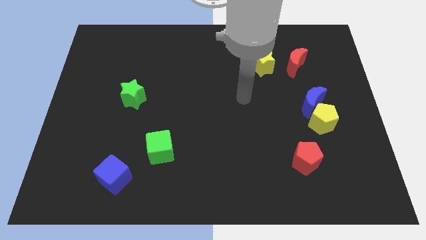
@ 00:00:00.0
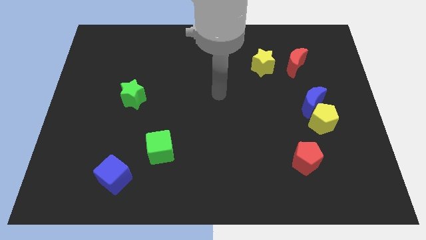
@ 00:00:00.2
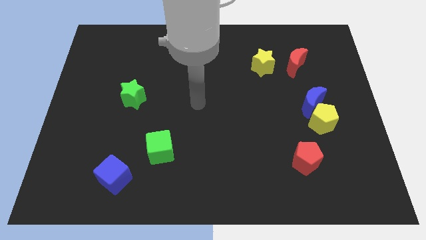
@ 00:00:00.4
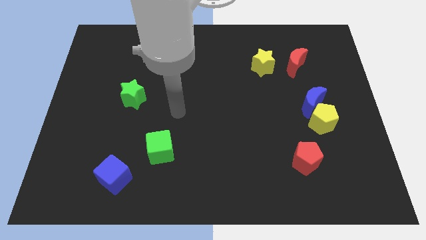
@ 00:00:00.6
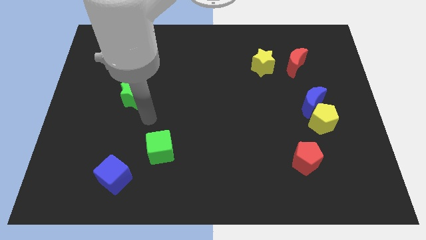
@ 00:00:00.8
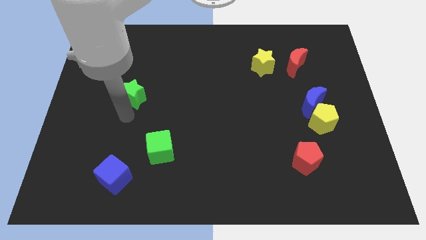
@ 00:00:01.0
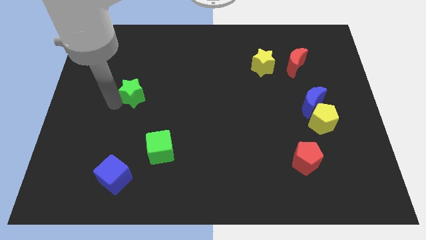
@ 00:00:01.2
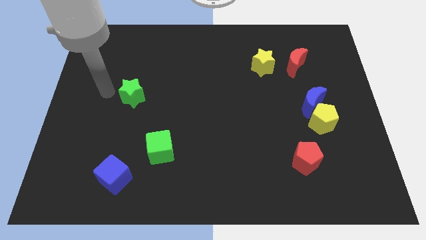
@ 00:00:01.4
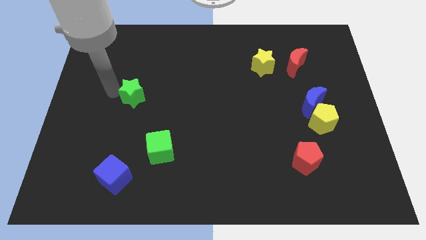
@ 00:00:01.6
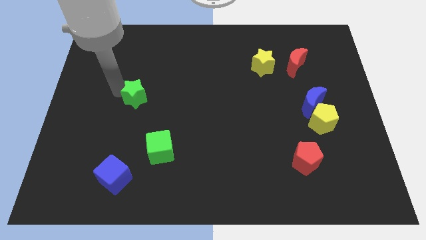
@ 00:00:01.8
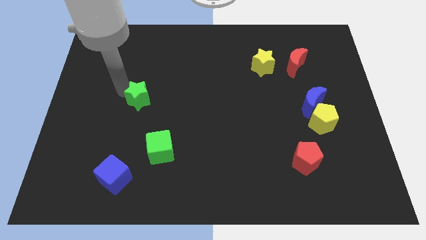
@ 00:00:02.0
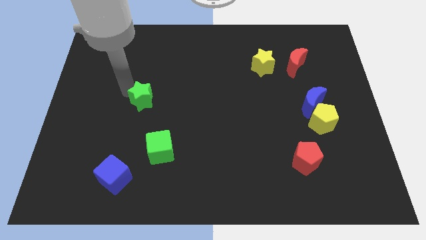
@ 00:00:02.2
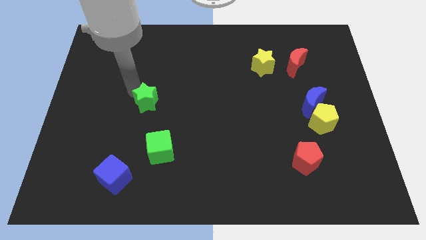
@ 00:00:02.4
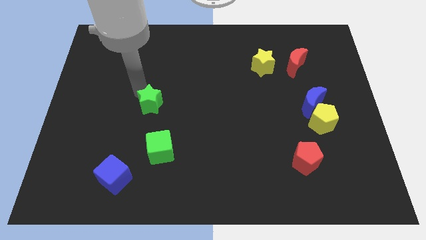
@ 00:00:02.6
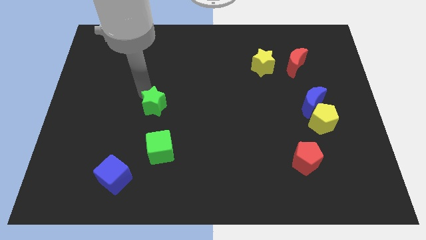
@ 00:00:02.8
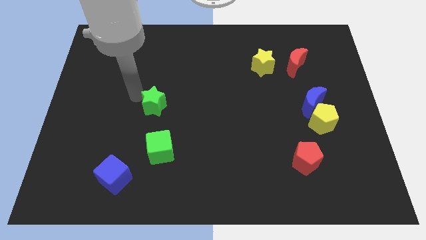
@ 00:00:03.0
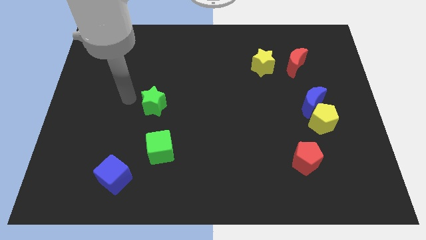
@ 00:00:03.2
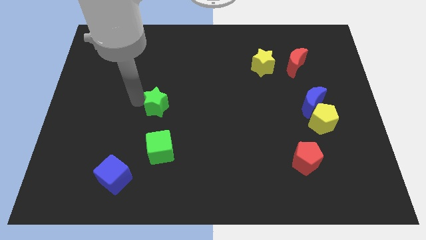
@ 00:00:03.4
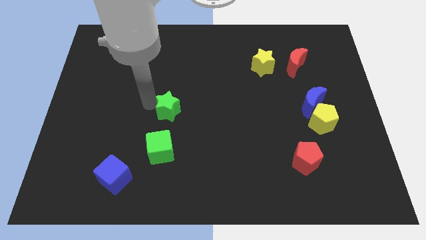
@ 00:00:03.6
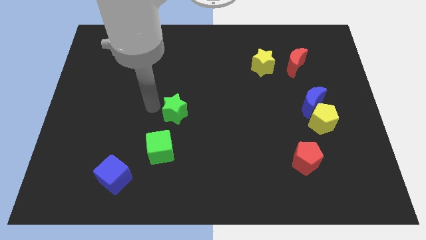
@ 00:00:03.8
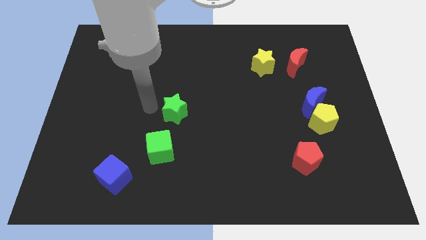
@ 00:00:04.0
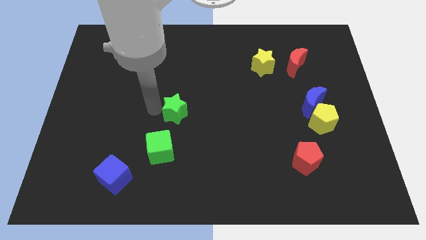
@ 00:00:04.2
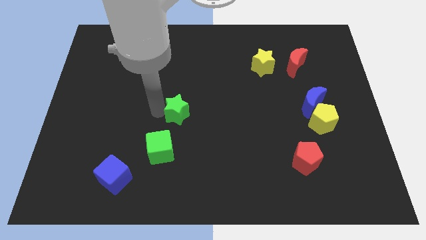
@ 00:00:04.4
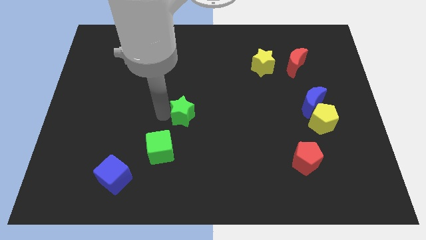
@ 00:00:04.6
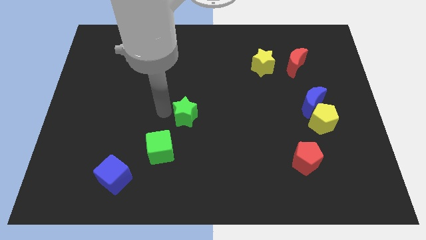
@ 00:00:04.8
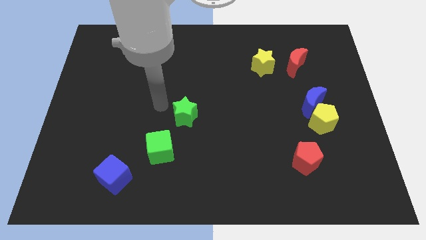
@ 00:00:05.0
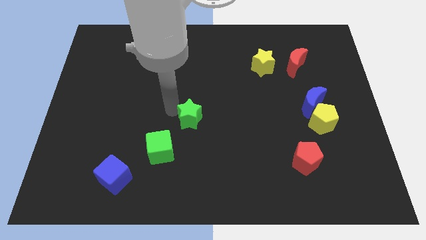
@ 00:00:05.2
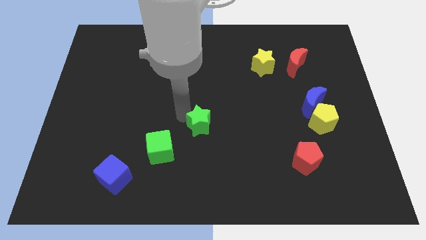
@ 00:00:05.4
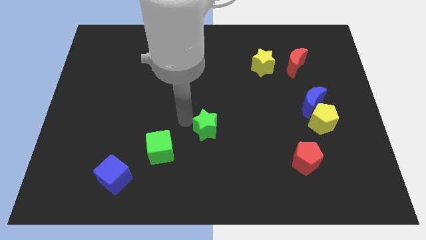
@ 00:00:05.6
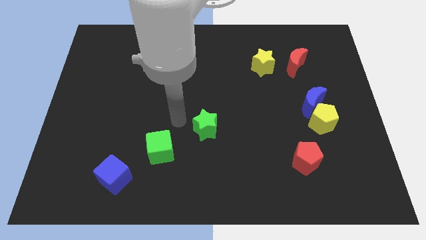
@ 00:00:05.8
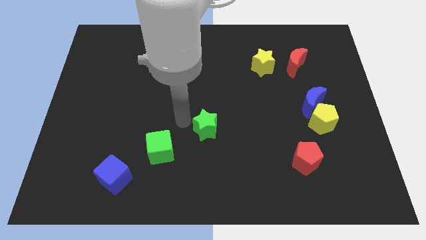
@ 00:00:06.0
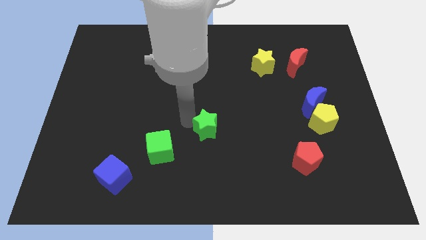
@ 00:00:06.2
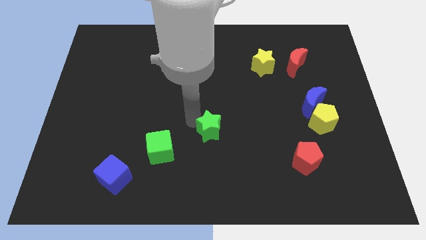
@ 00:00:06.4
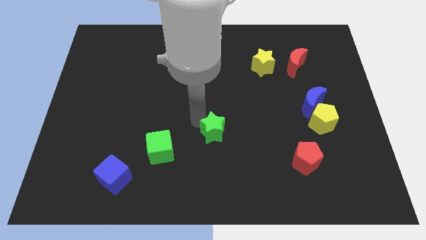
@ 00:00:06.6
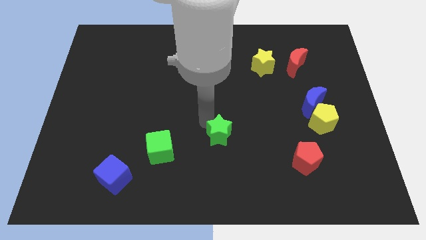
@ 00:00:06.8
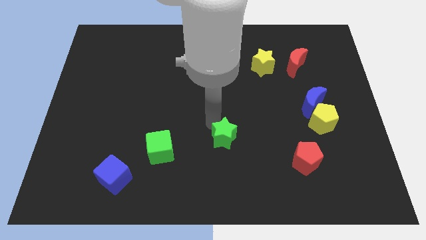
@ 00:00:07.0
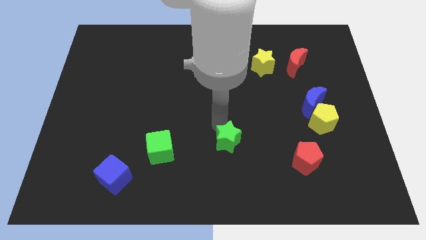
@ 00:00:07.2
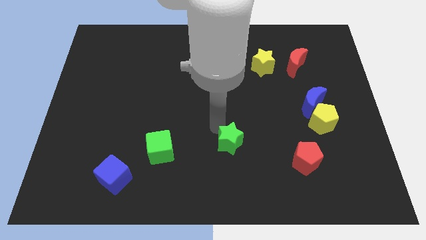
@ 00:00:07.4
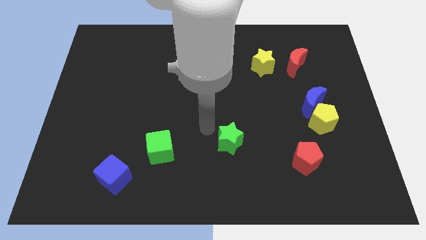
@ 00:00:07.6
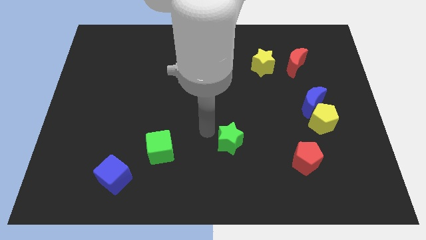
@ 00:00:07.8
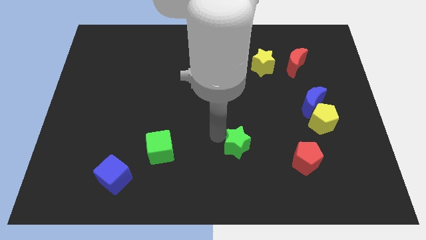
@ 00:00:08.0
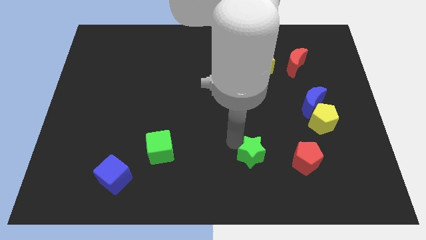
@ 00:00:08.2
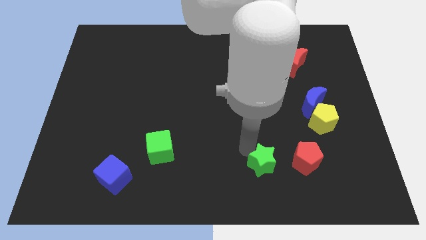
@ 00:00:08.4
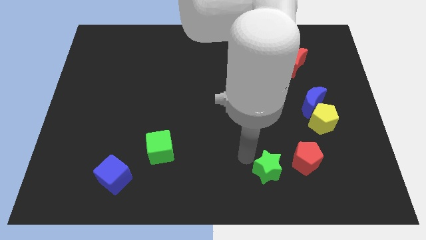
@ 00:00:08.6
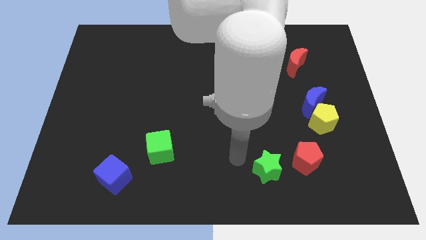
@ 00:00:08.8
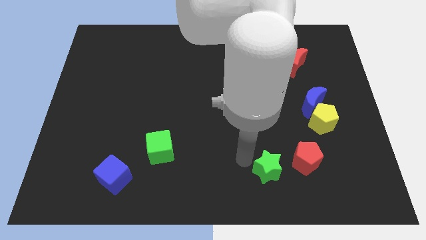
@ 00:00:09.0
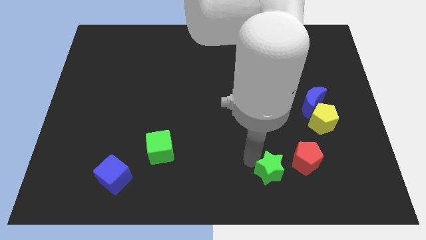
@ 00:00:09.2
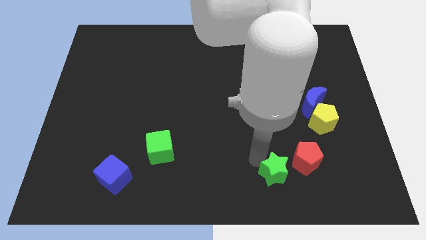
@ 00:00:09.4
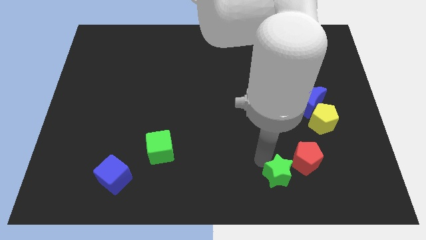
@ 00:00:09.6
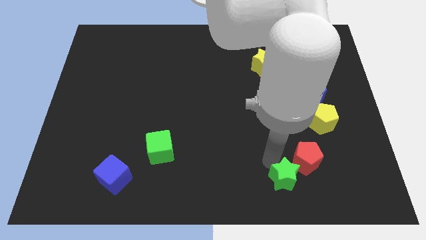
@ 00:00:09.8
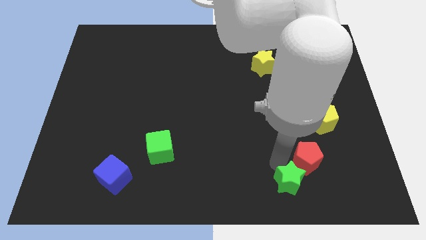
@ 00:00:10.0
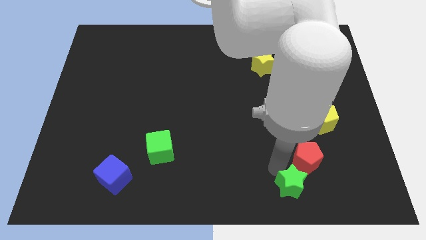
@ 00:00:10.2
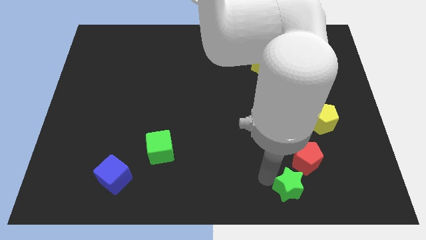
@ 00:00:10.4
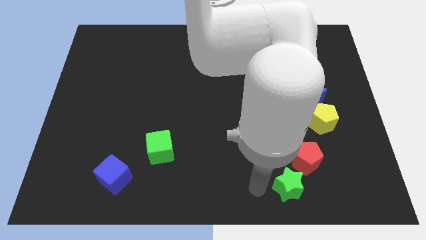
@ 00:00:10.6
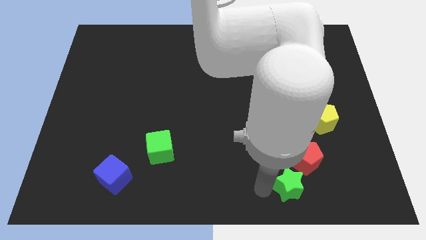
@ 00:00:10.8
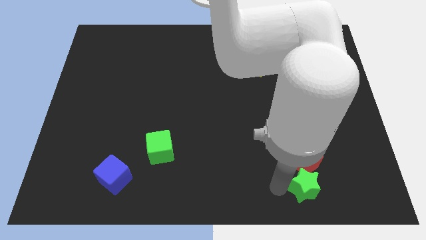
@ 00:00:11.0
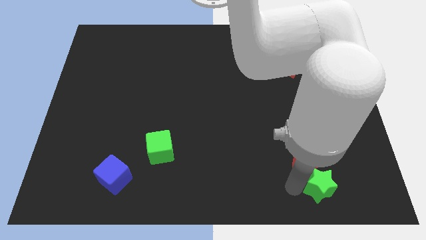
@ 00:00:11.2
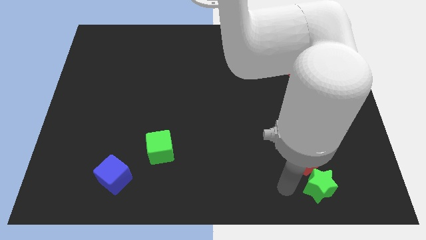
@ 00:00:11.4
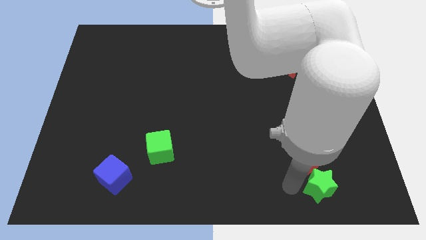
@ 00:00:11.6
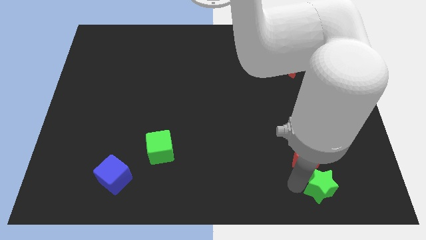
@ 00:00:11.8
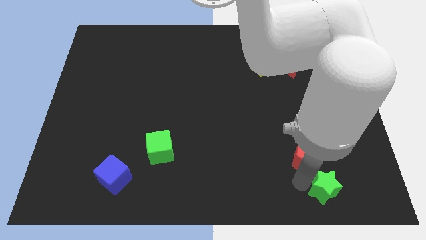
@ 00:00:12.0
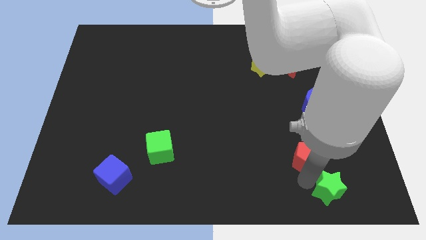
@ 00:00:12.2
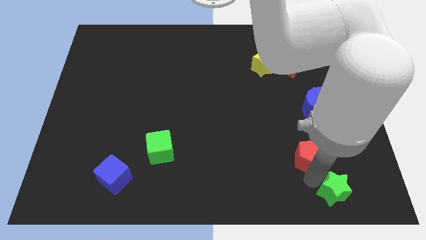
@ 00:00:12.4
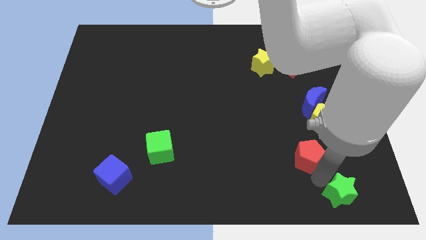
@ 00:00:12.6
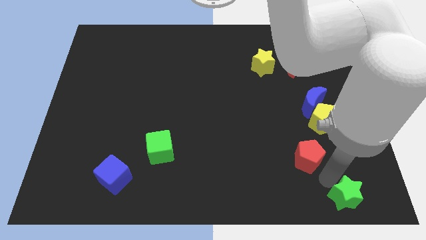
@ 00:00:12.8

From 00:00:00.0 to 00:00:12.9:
slide the green star to the bottom right corner
